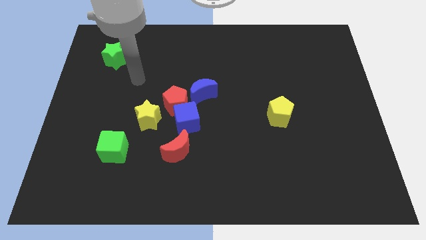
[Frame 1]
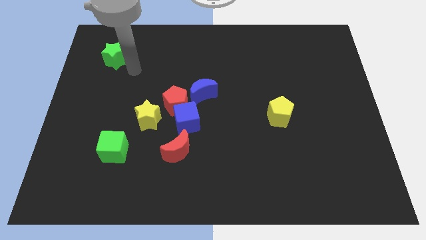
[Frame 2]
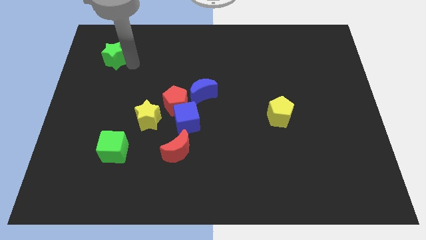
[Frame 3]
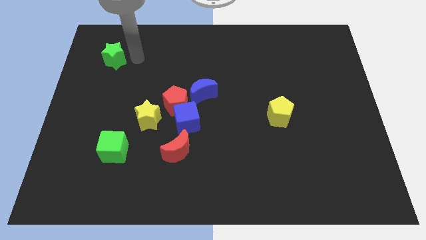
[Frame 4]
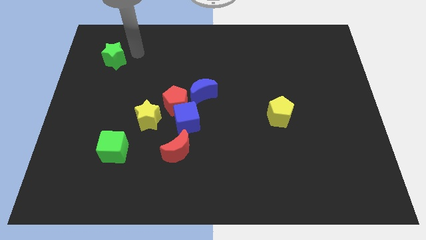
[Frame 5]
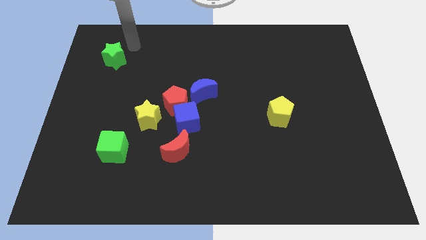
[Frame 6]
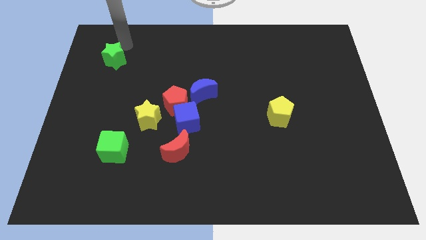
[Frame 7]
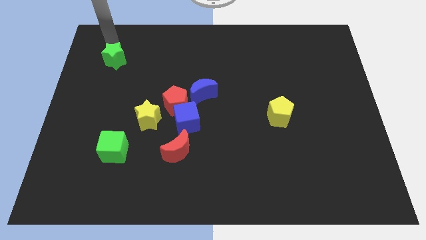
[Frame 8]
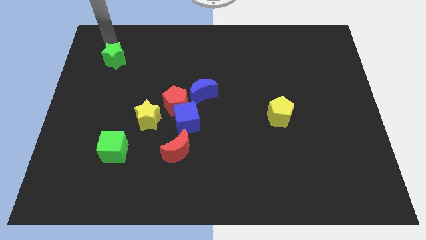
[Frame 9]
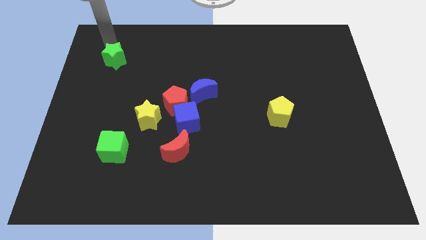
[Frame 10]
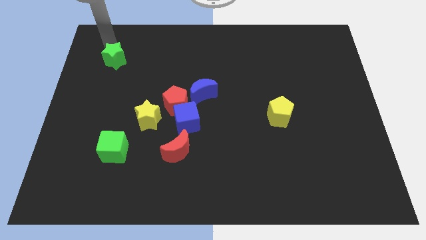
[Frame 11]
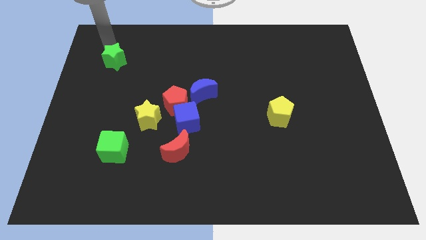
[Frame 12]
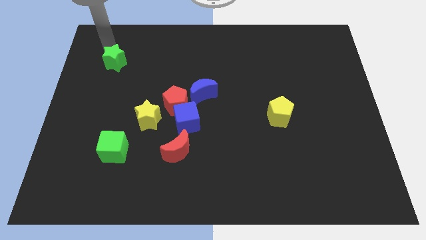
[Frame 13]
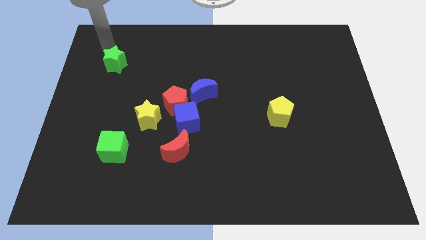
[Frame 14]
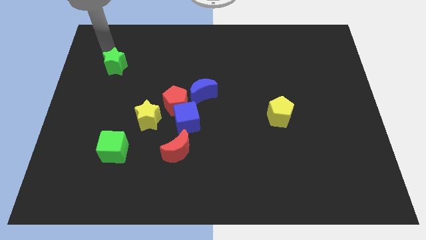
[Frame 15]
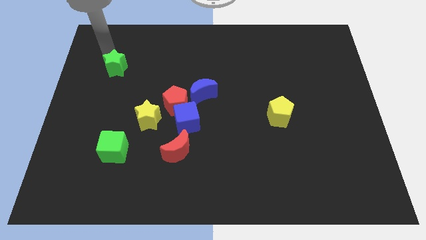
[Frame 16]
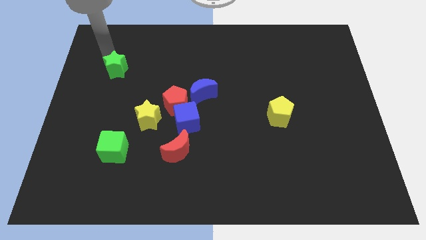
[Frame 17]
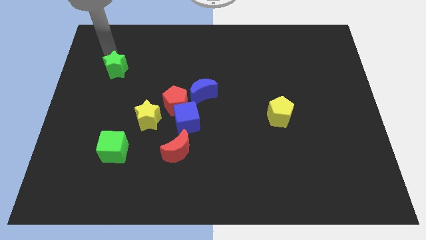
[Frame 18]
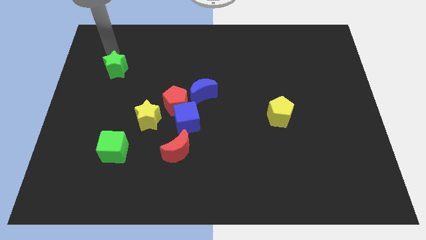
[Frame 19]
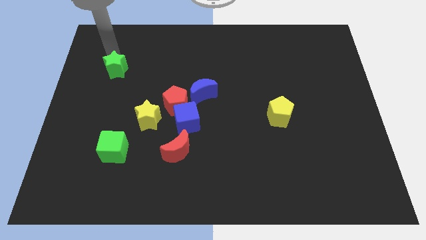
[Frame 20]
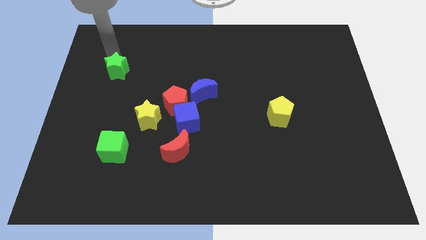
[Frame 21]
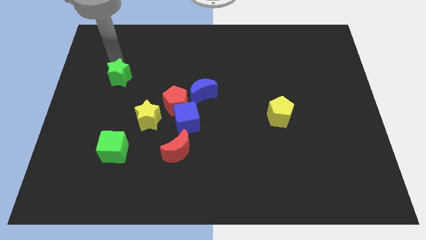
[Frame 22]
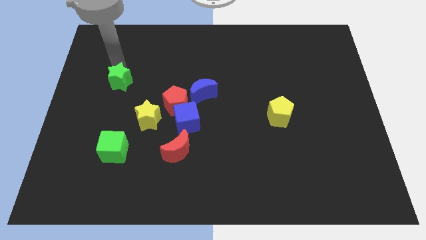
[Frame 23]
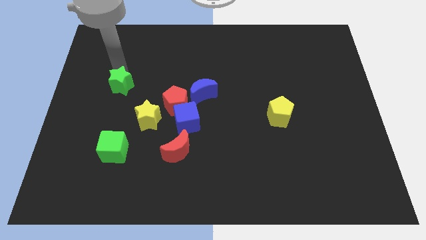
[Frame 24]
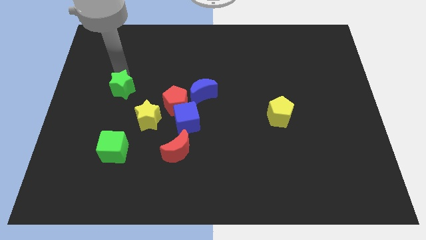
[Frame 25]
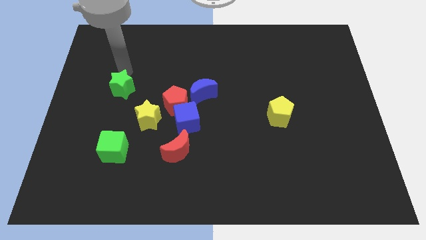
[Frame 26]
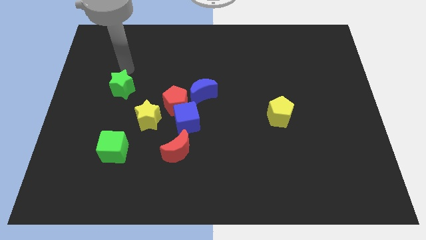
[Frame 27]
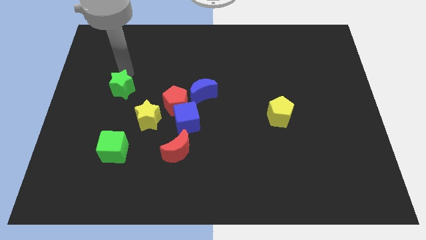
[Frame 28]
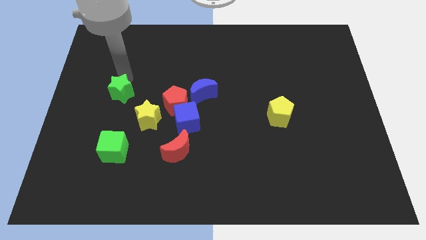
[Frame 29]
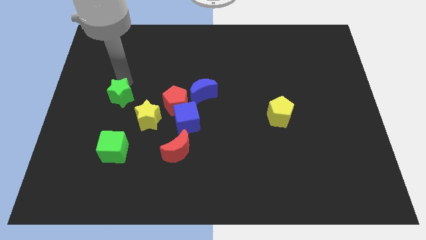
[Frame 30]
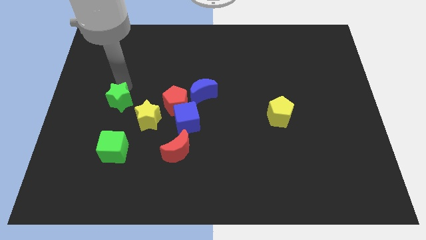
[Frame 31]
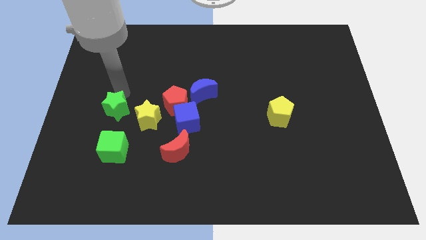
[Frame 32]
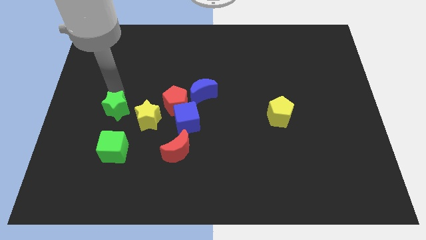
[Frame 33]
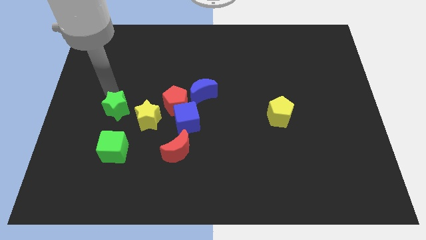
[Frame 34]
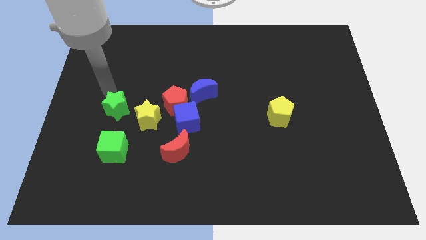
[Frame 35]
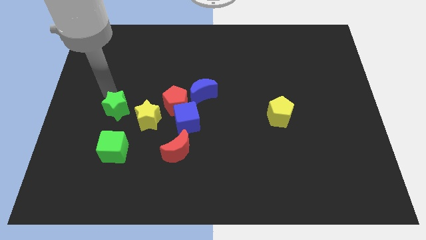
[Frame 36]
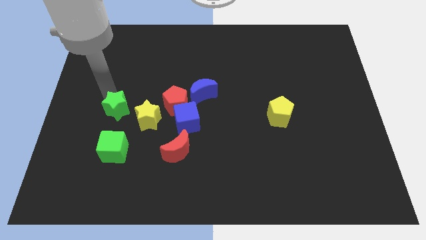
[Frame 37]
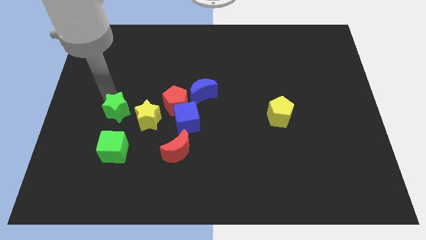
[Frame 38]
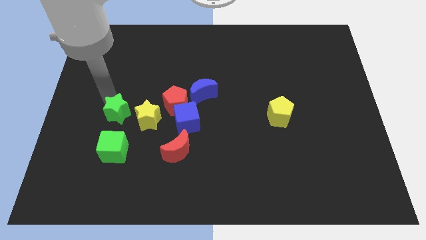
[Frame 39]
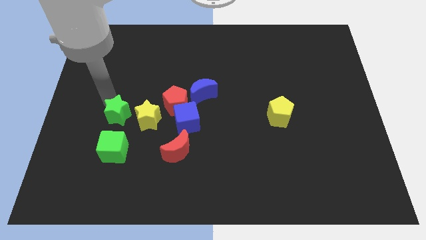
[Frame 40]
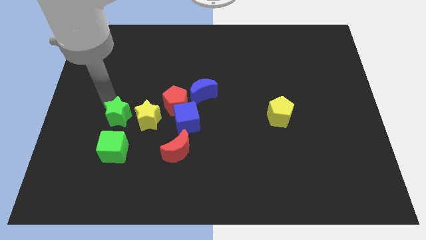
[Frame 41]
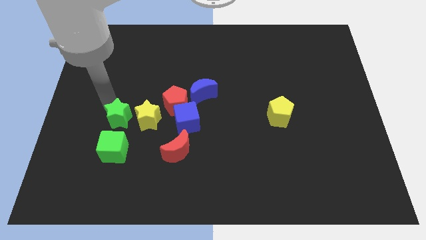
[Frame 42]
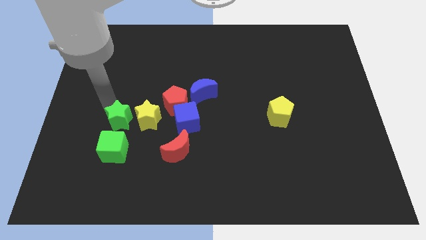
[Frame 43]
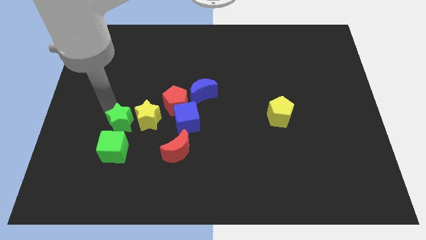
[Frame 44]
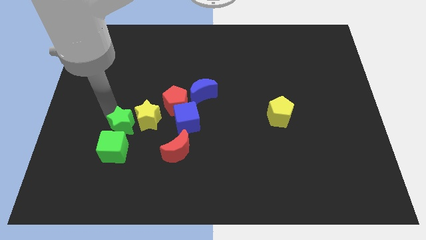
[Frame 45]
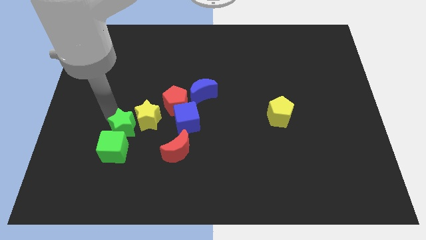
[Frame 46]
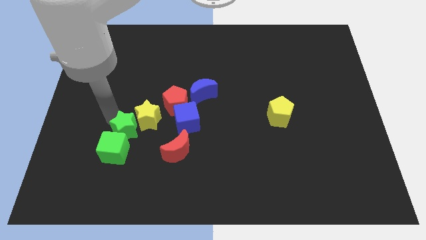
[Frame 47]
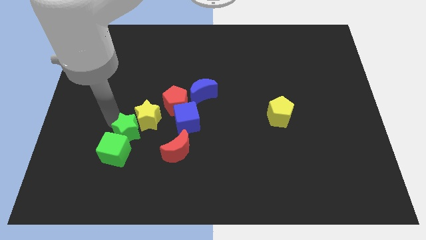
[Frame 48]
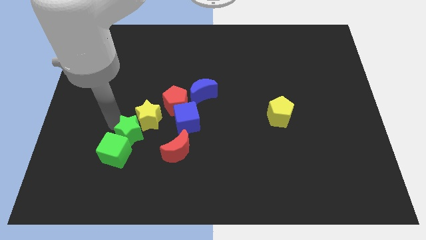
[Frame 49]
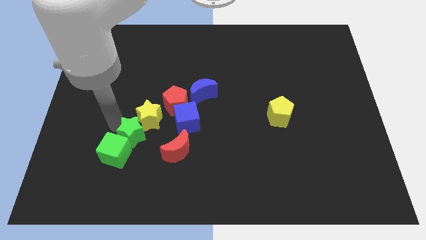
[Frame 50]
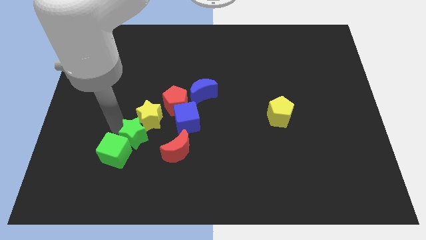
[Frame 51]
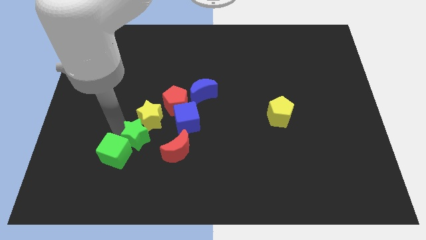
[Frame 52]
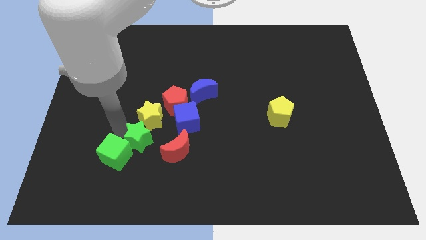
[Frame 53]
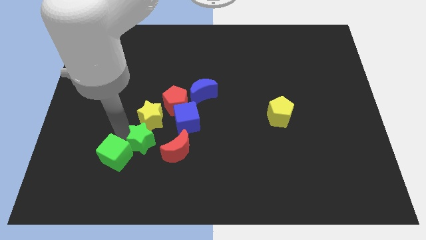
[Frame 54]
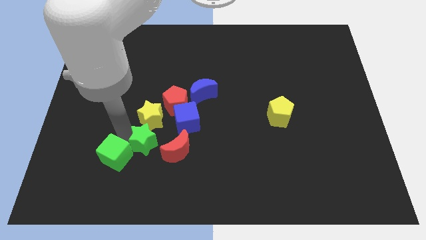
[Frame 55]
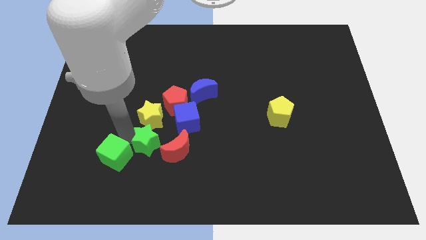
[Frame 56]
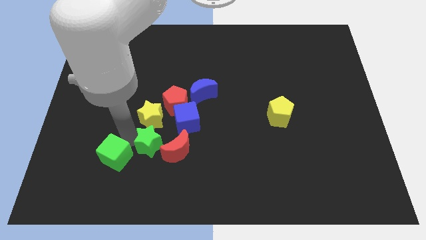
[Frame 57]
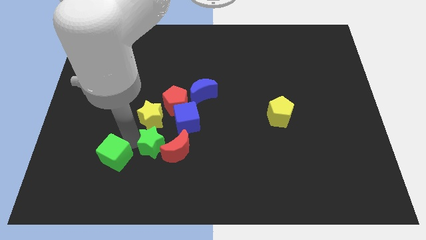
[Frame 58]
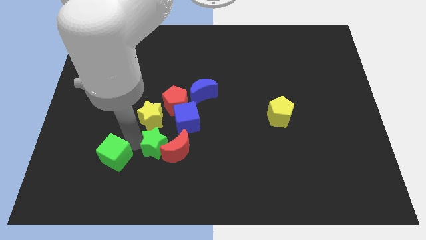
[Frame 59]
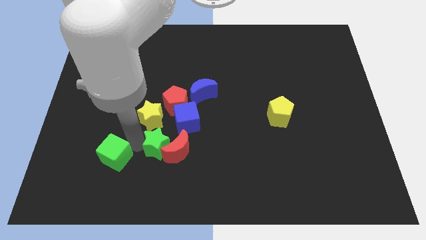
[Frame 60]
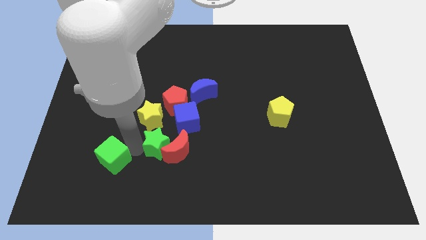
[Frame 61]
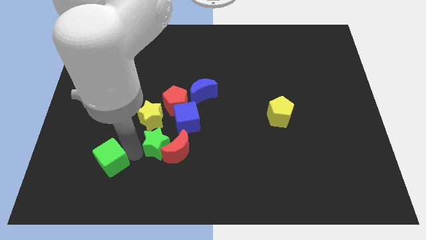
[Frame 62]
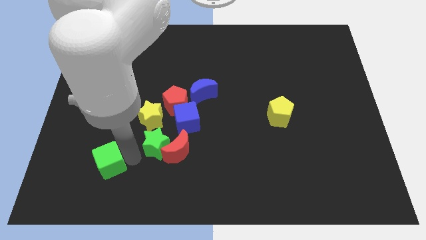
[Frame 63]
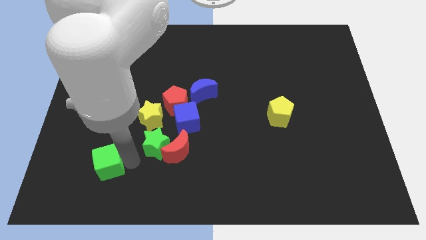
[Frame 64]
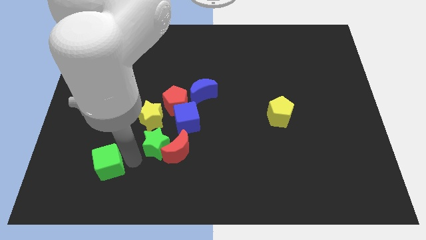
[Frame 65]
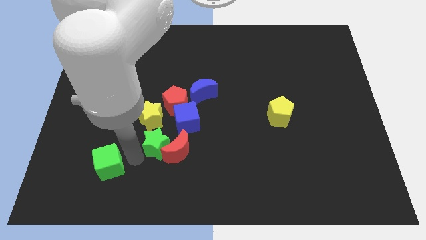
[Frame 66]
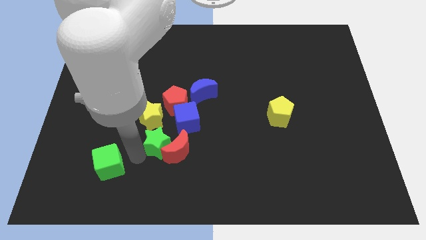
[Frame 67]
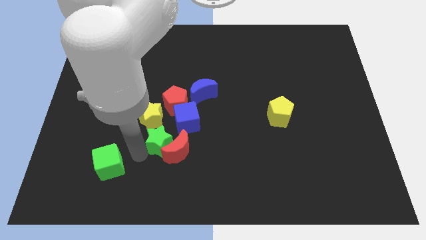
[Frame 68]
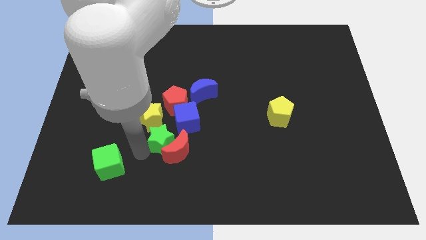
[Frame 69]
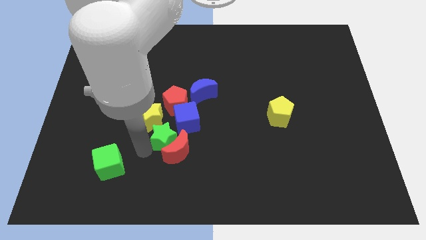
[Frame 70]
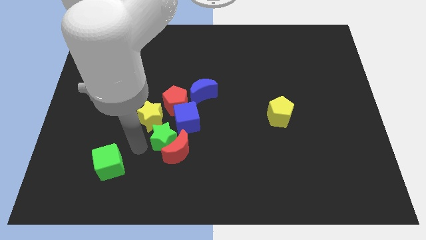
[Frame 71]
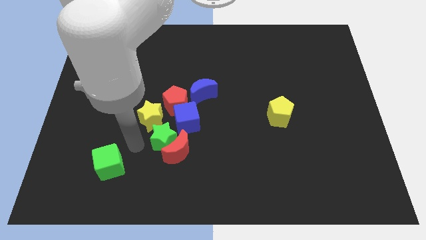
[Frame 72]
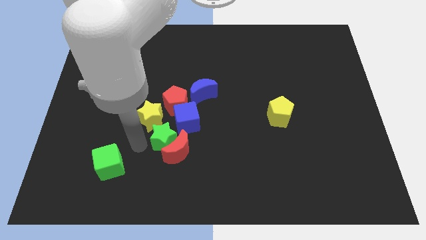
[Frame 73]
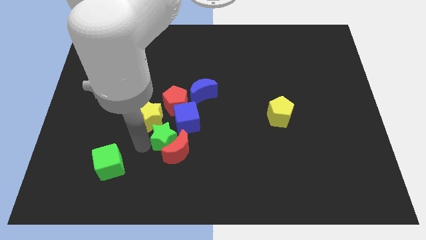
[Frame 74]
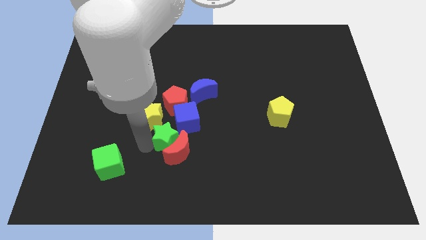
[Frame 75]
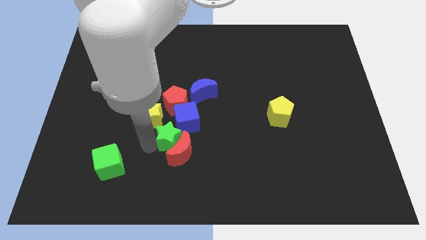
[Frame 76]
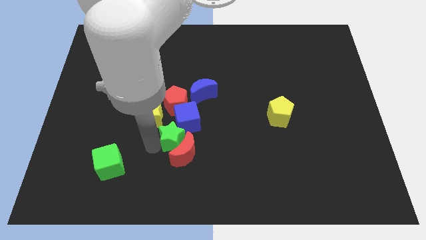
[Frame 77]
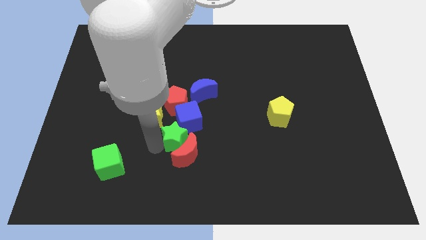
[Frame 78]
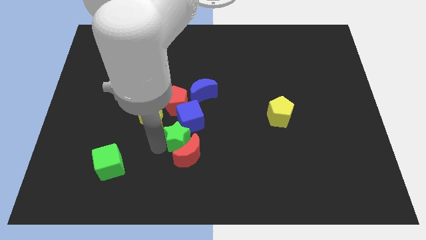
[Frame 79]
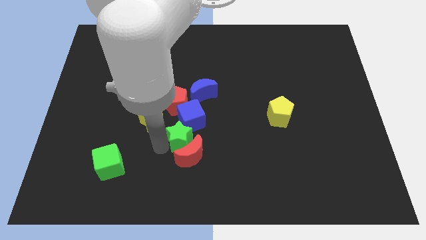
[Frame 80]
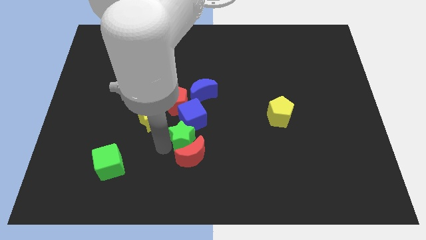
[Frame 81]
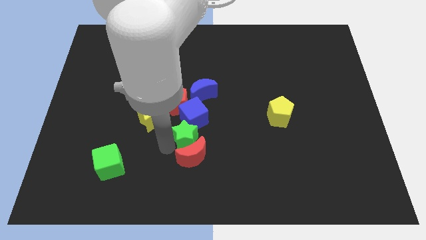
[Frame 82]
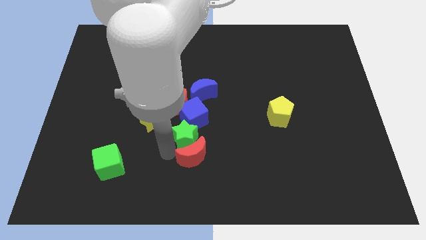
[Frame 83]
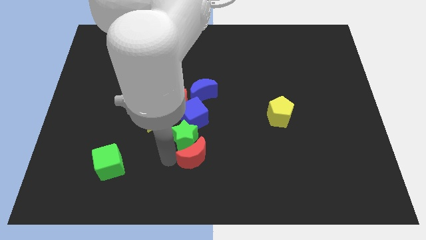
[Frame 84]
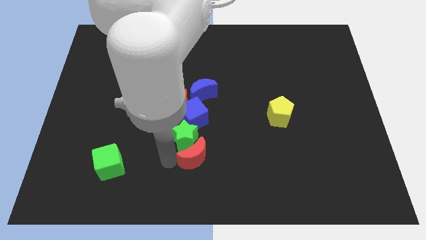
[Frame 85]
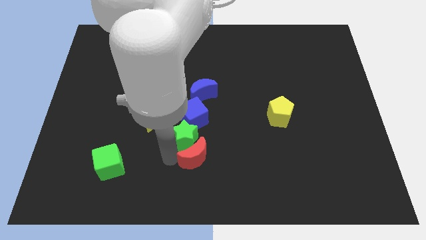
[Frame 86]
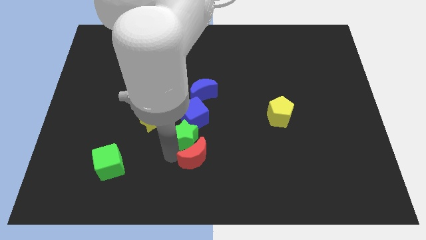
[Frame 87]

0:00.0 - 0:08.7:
slide the green star to the bottom right side of the red pentagon
